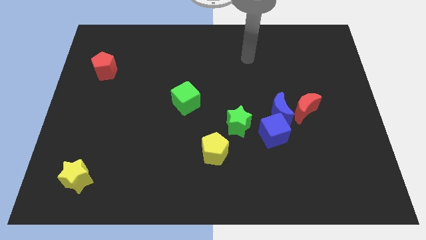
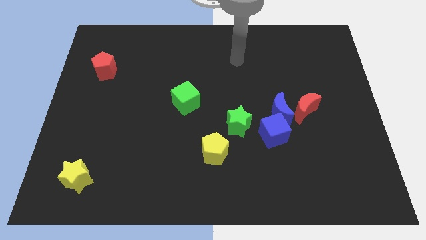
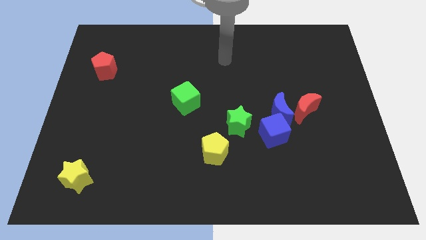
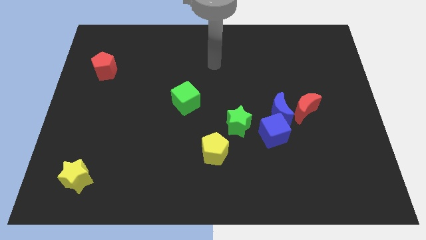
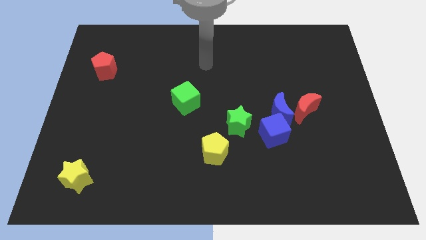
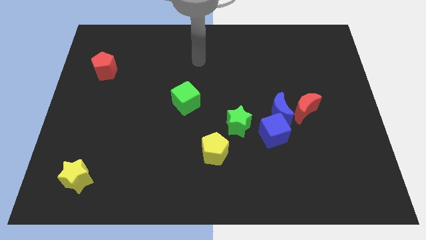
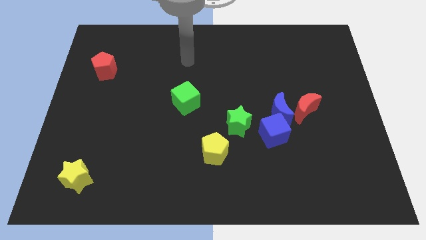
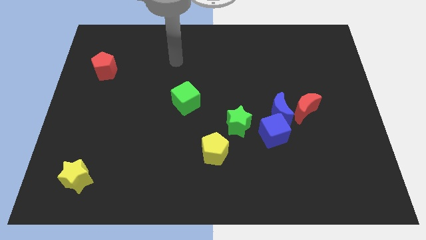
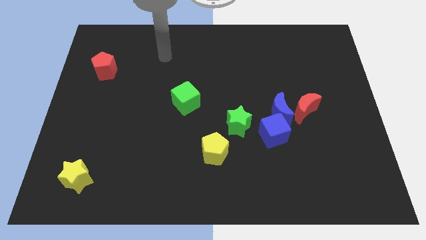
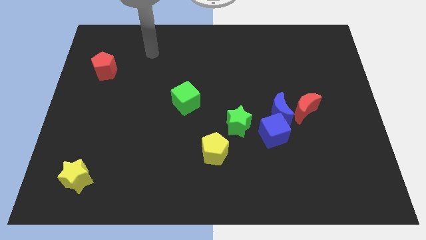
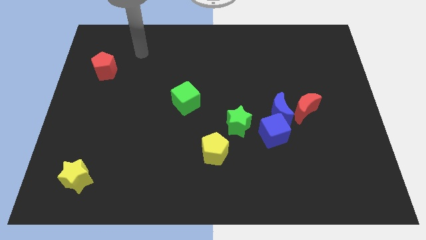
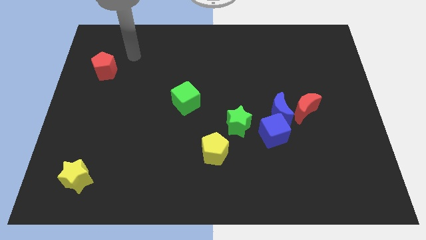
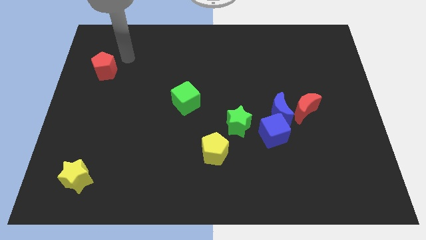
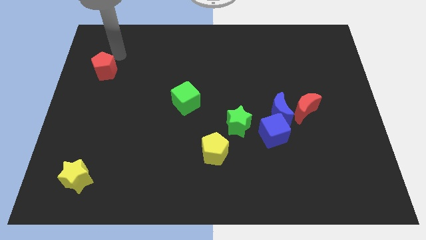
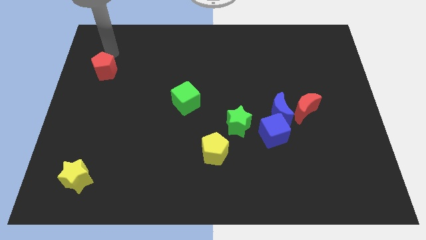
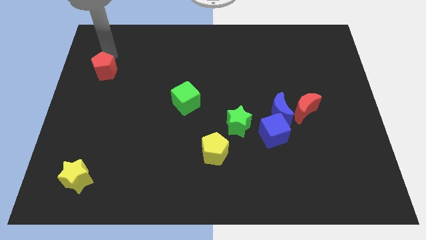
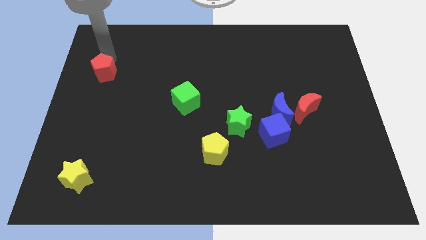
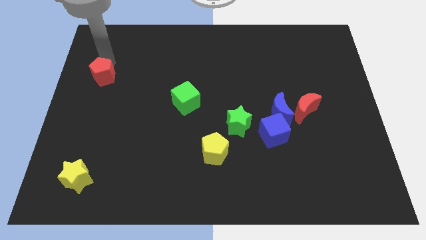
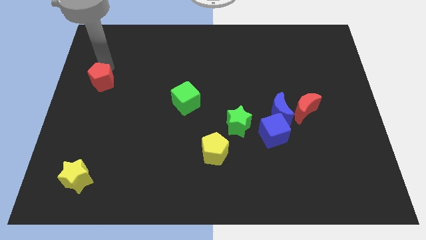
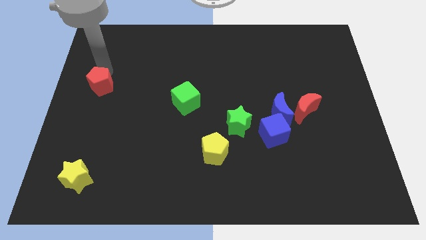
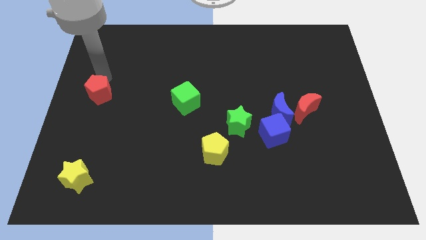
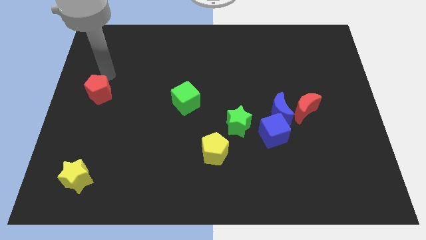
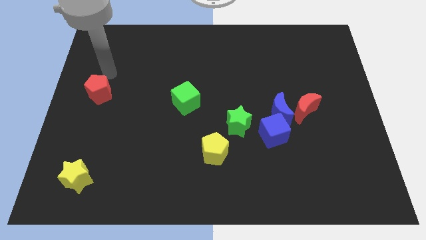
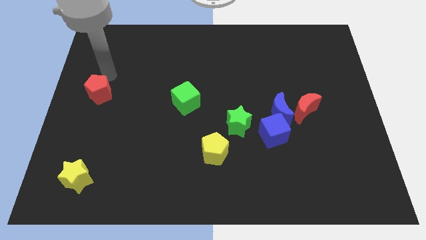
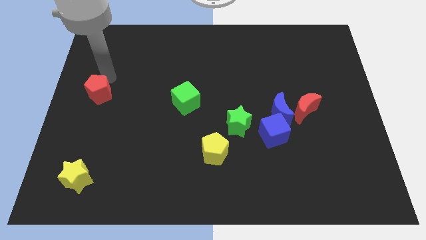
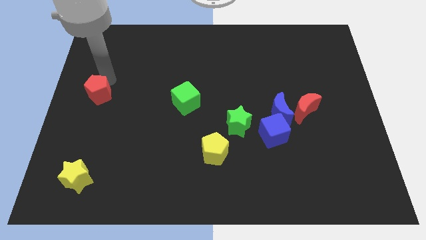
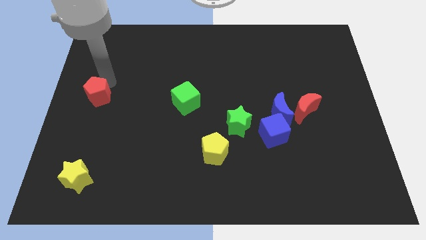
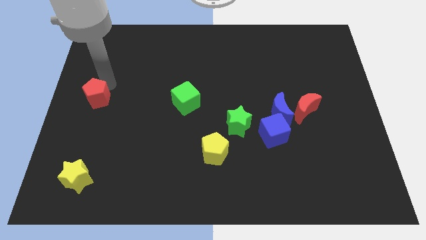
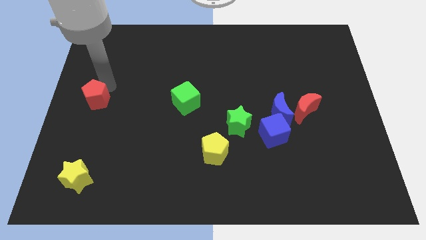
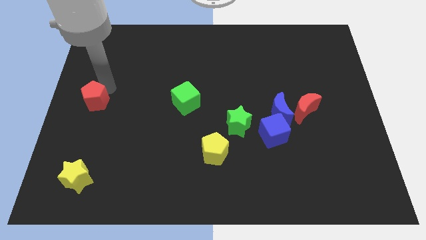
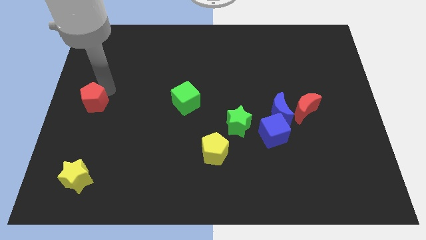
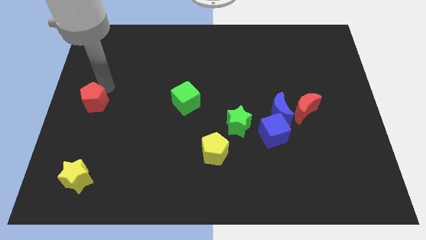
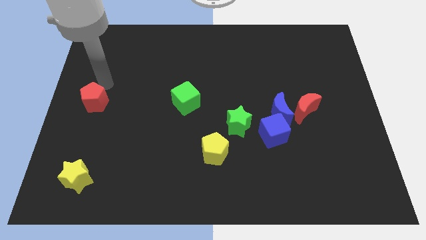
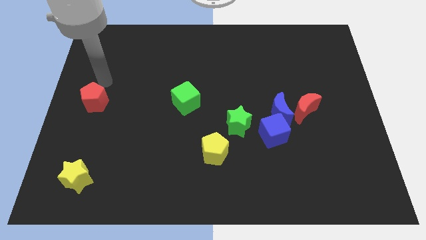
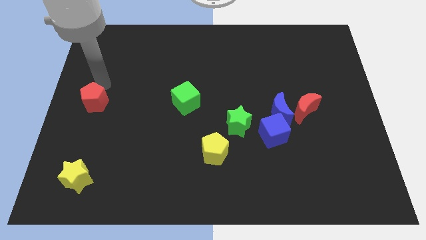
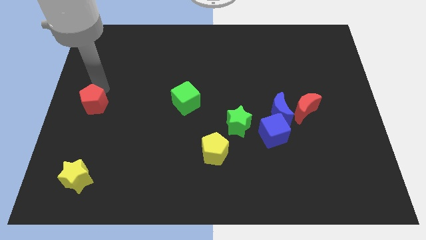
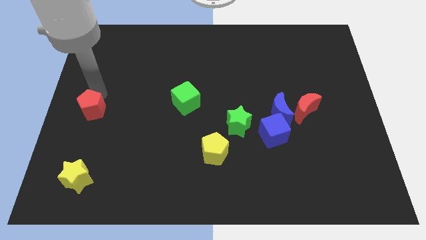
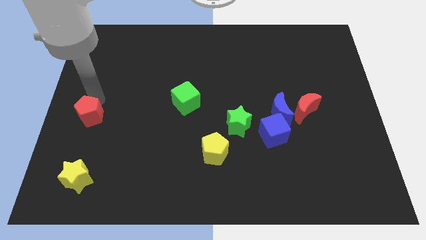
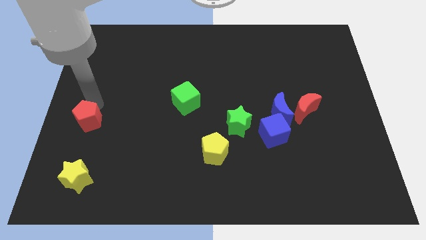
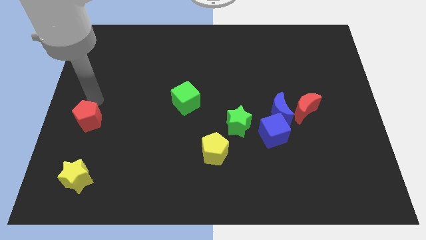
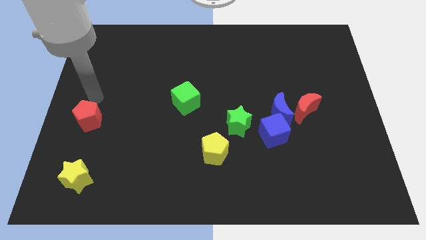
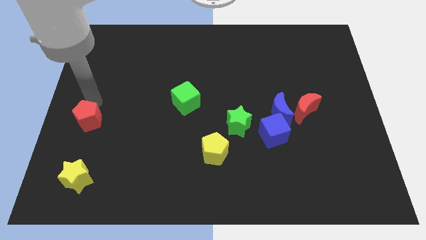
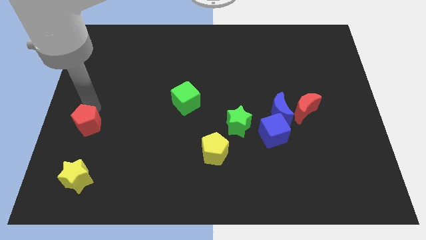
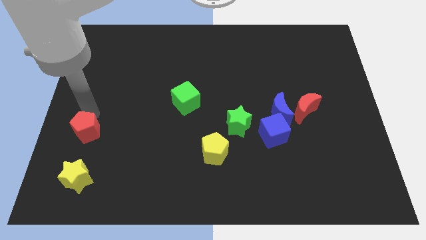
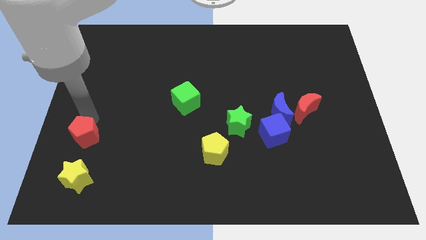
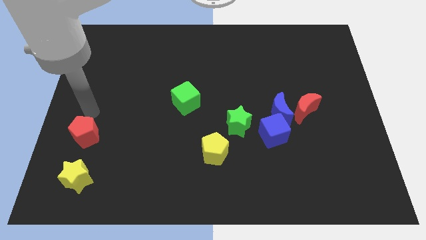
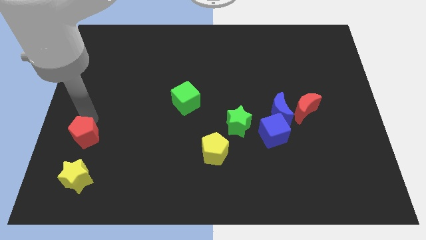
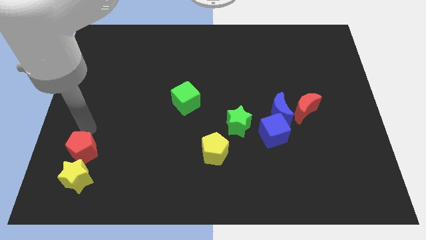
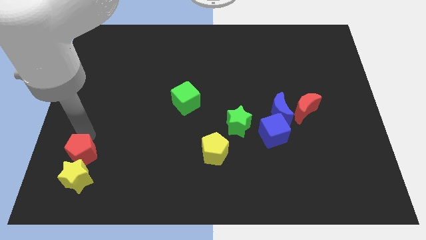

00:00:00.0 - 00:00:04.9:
push the red pentagon close to the yellow star

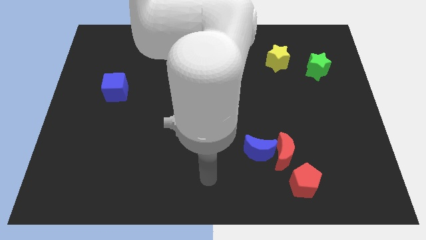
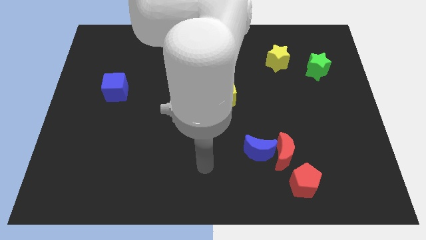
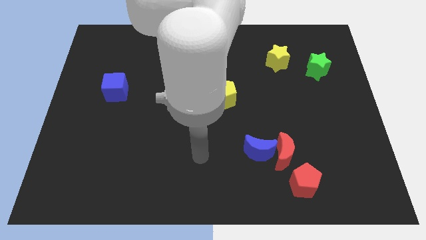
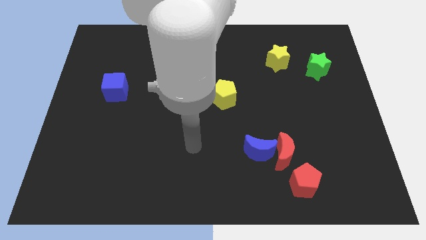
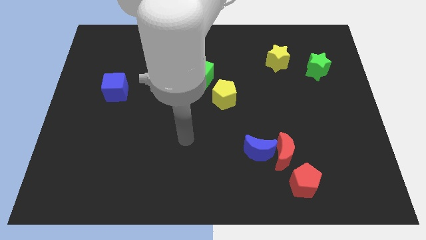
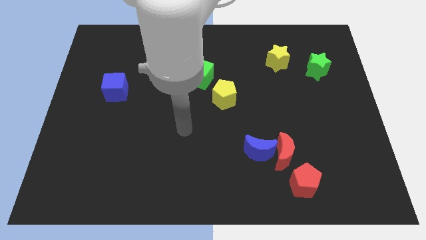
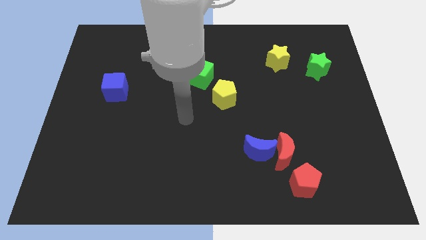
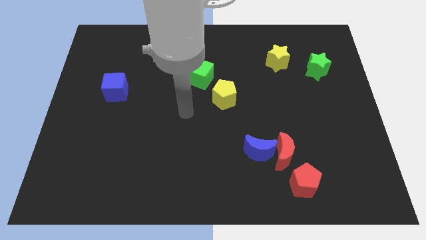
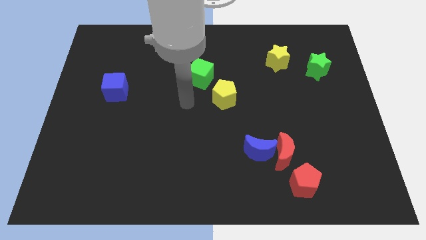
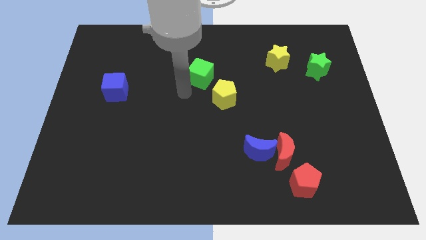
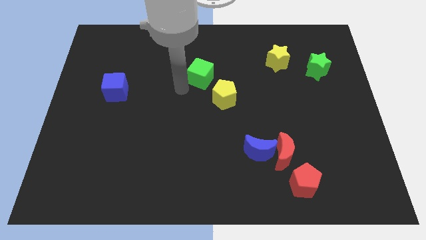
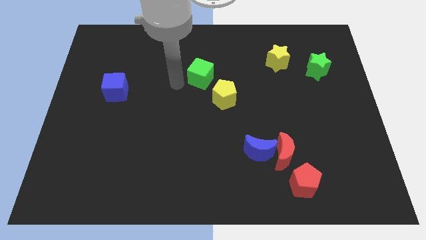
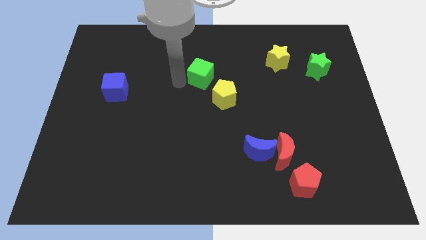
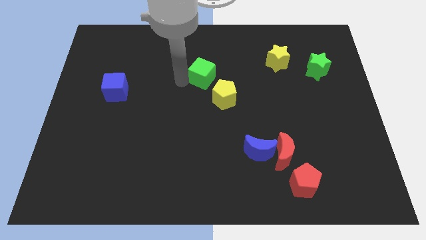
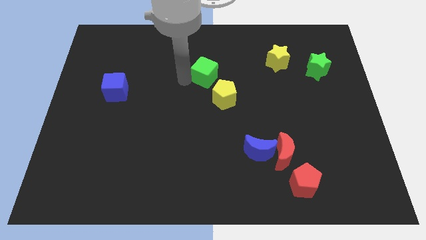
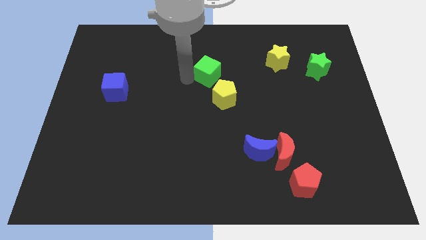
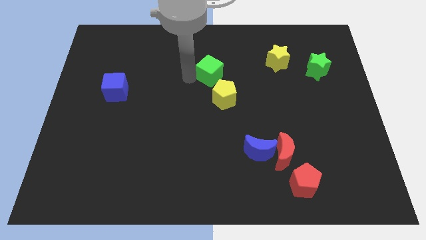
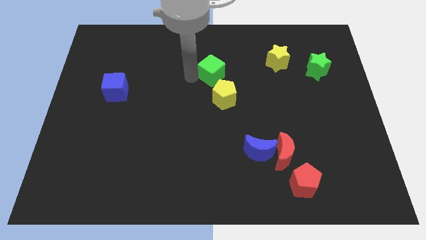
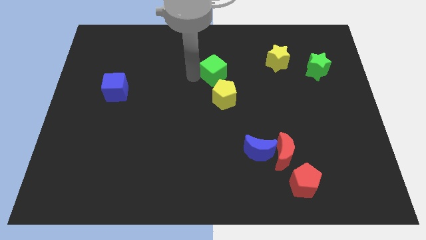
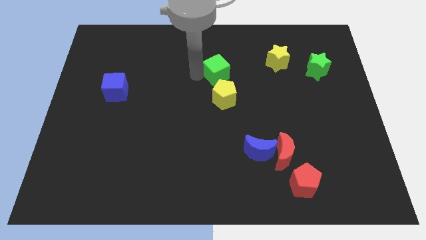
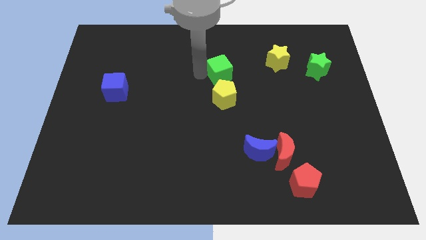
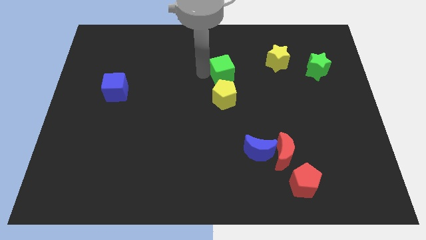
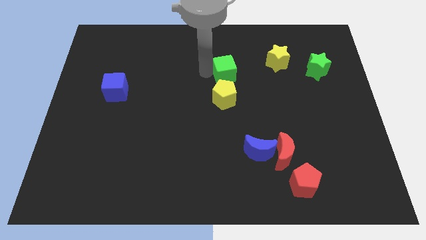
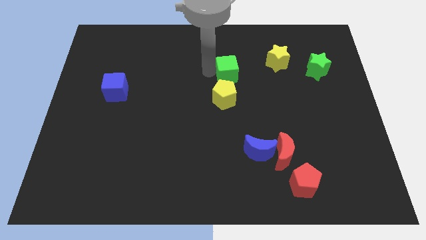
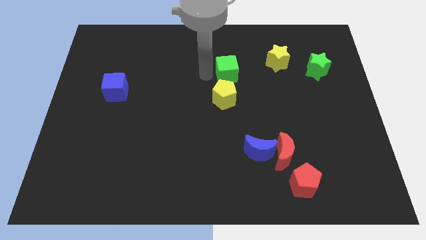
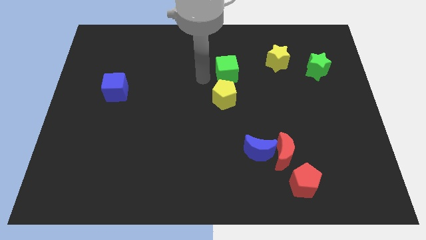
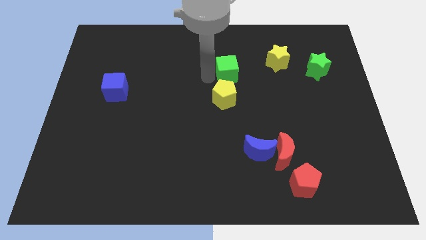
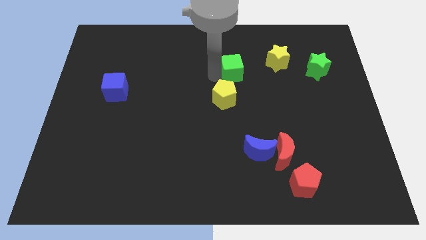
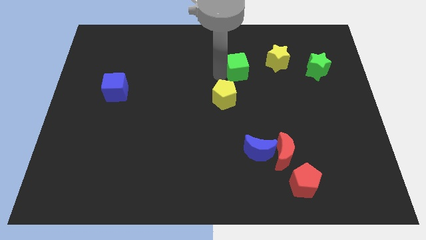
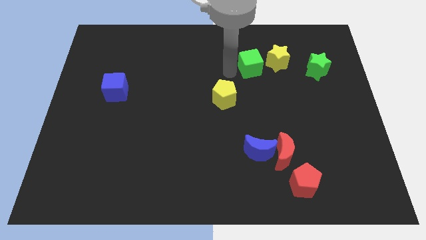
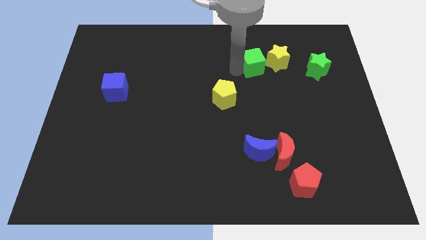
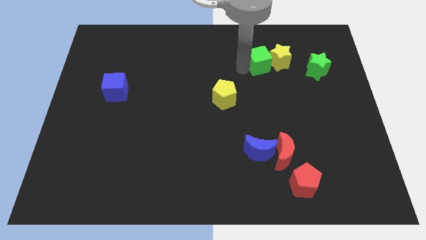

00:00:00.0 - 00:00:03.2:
put the green cube close to the yellow star
